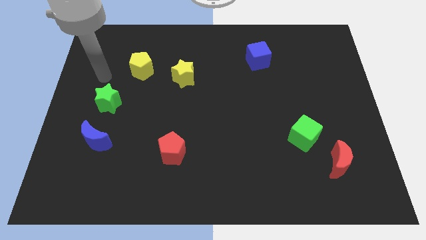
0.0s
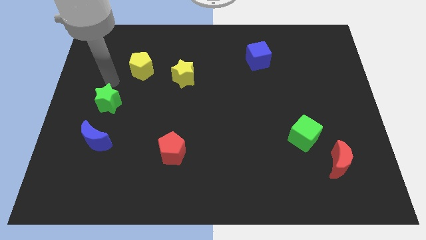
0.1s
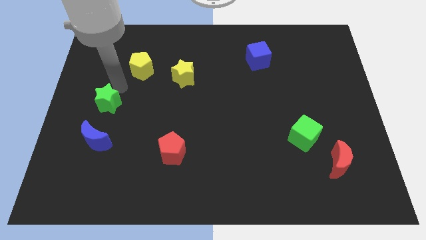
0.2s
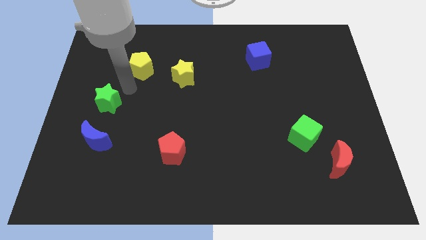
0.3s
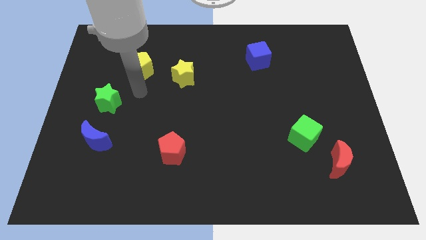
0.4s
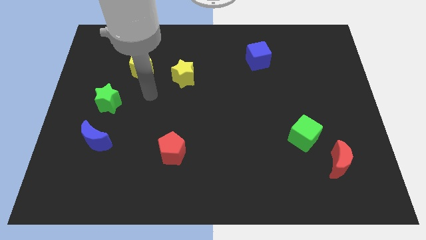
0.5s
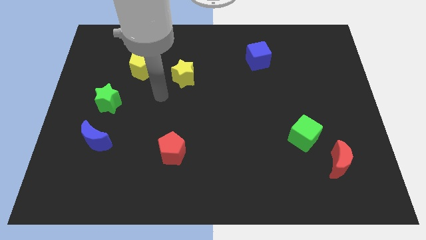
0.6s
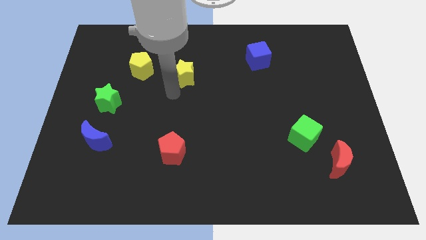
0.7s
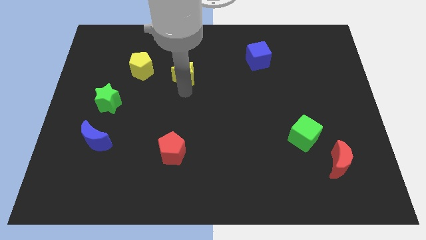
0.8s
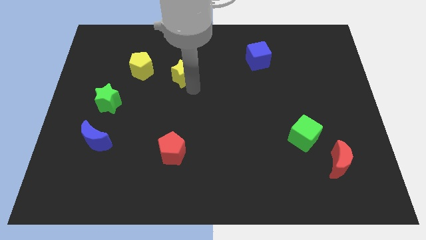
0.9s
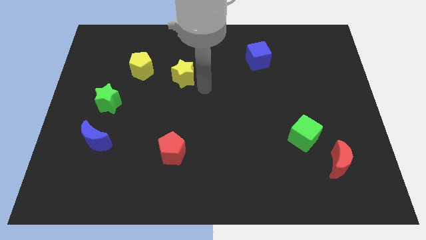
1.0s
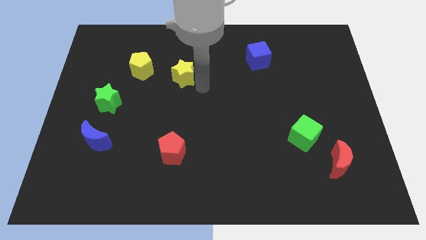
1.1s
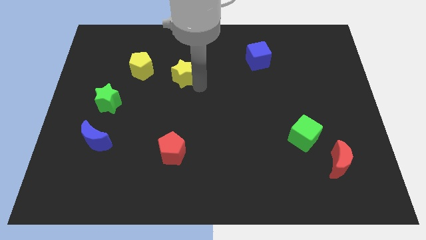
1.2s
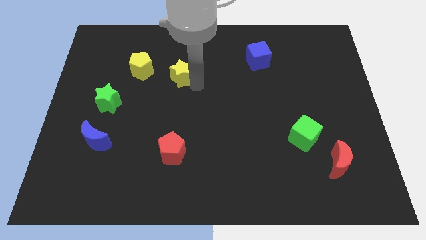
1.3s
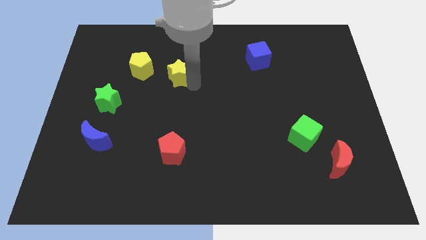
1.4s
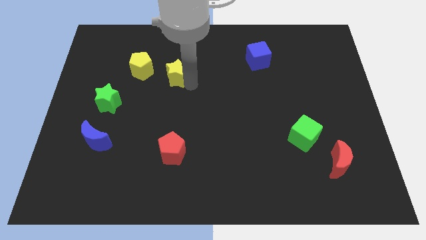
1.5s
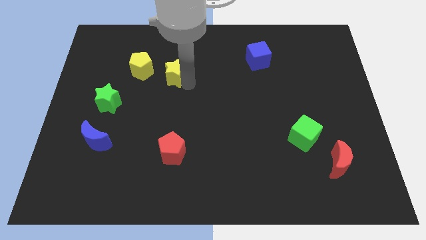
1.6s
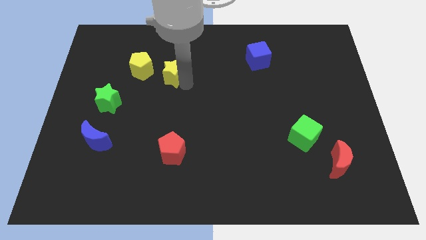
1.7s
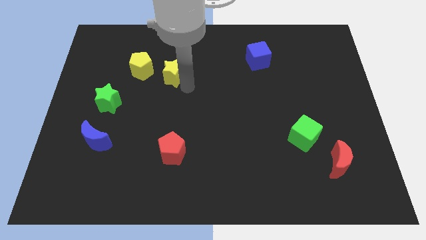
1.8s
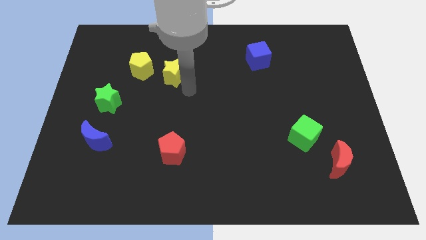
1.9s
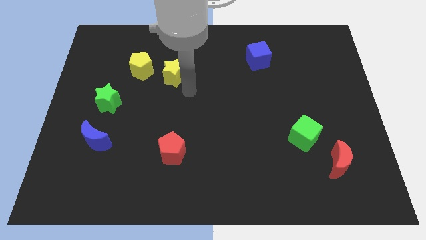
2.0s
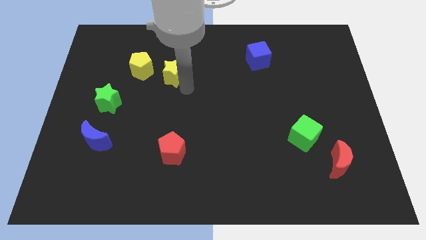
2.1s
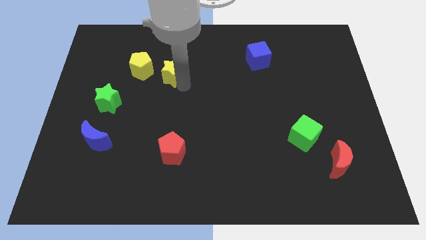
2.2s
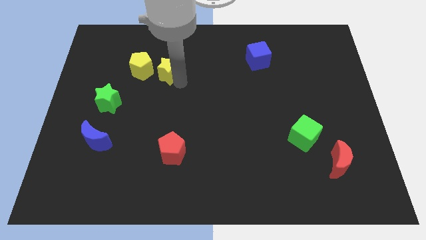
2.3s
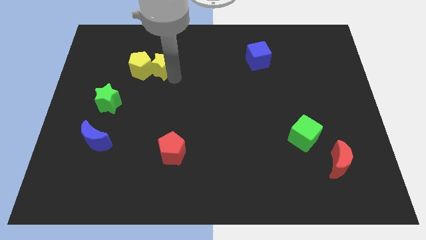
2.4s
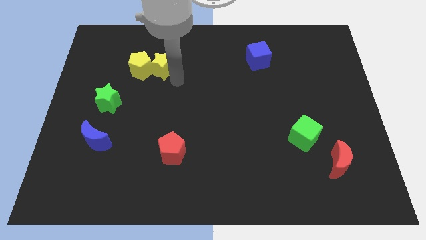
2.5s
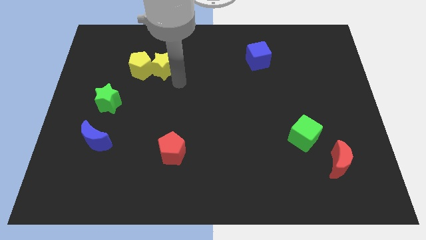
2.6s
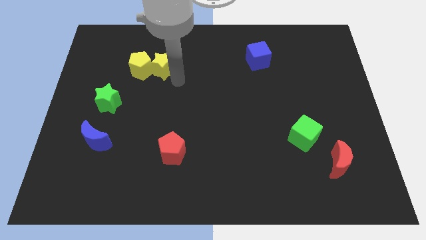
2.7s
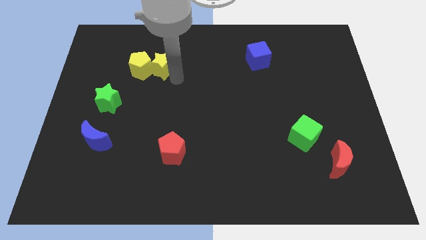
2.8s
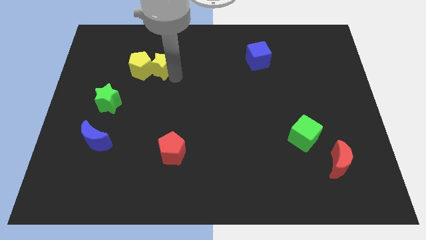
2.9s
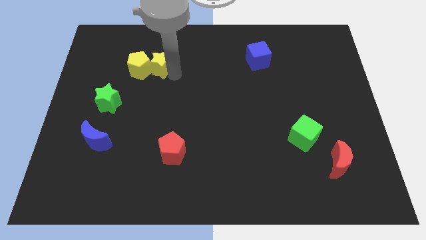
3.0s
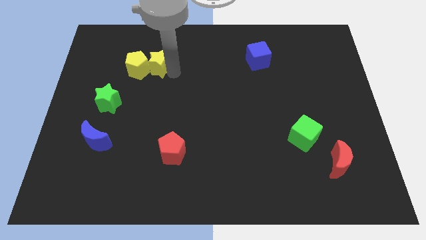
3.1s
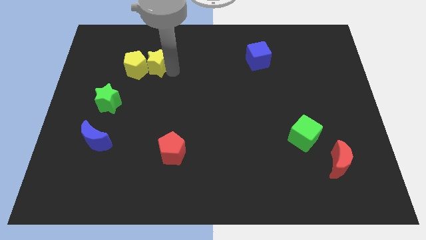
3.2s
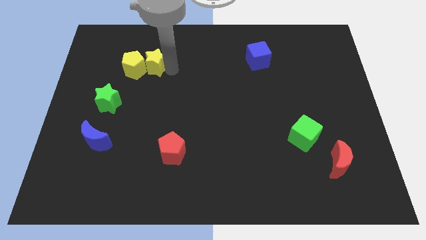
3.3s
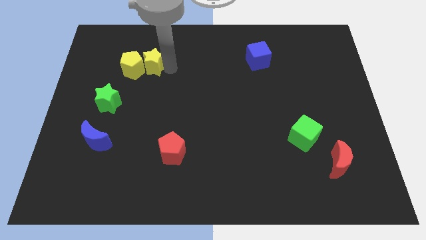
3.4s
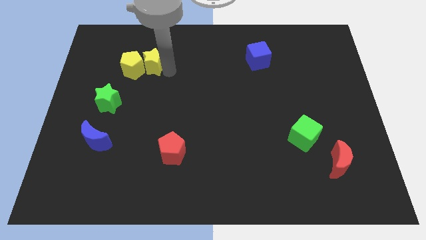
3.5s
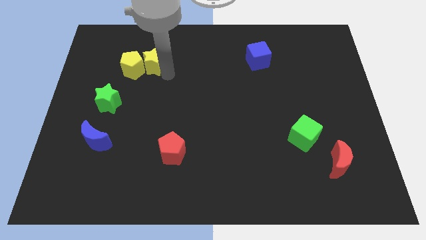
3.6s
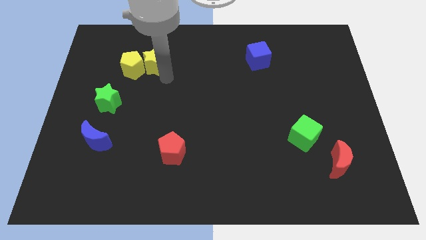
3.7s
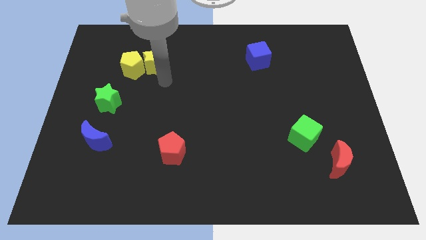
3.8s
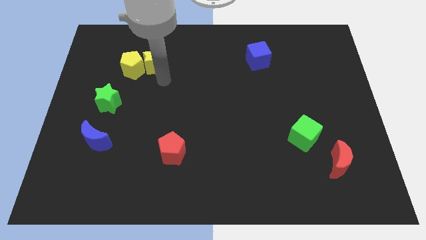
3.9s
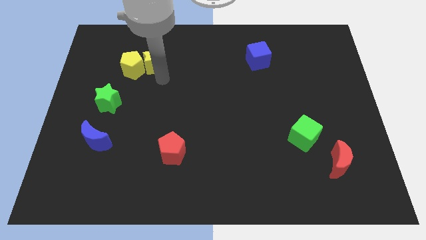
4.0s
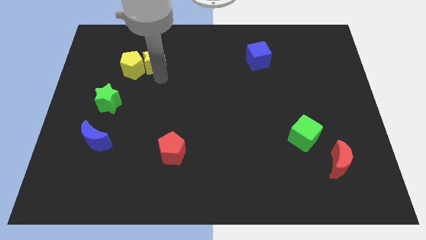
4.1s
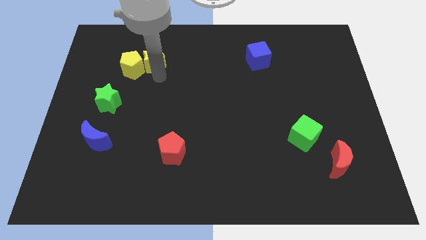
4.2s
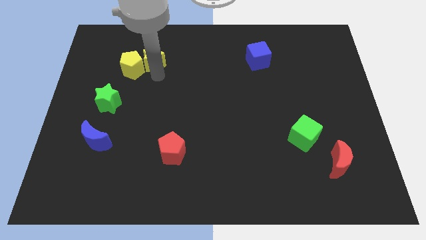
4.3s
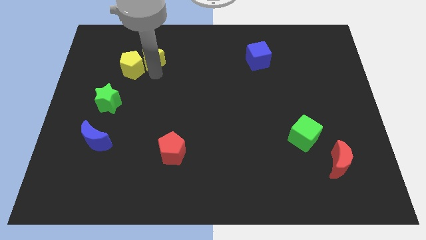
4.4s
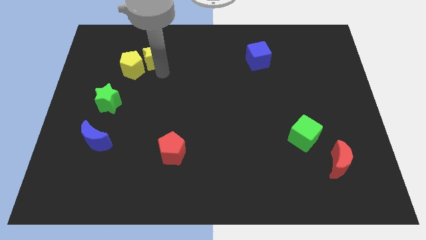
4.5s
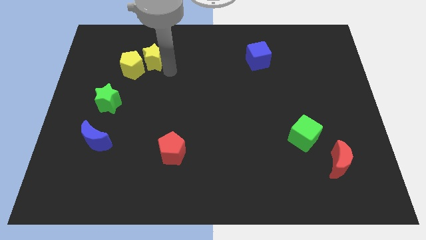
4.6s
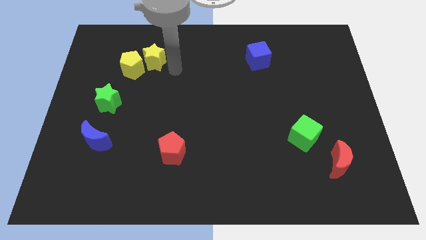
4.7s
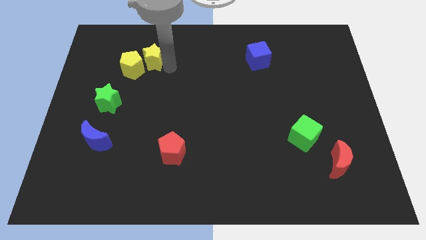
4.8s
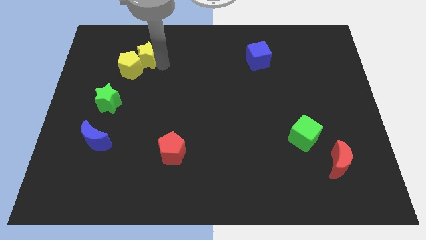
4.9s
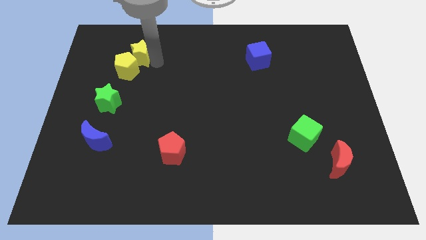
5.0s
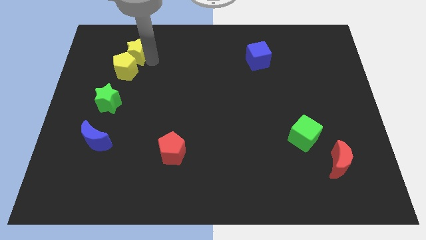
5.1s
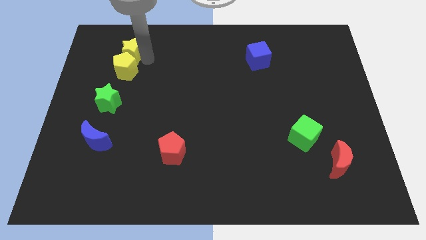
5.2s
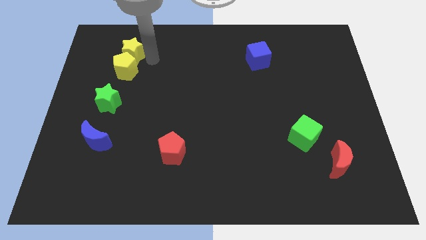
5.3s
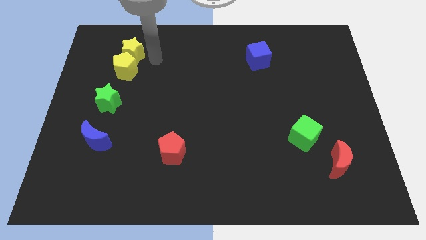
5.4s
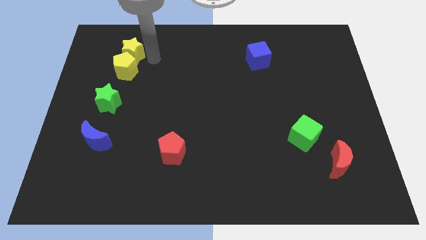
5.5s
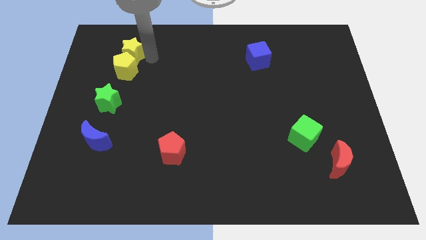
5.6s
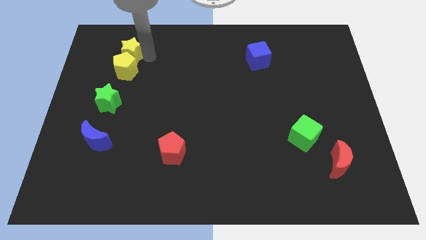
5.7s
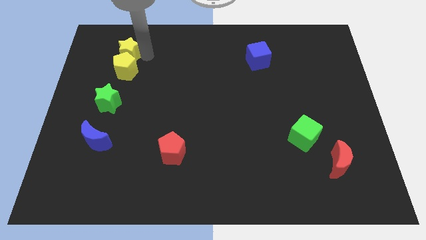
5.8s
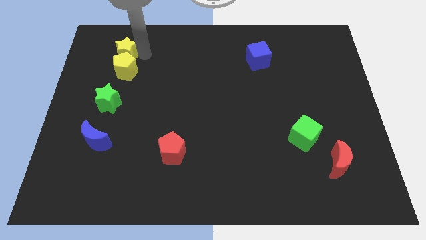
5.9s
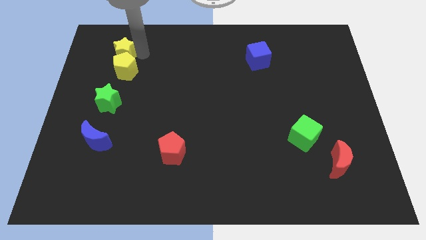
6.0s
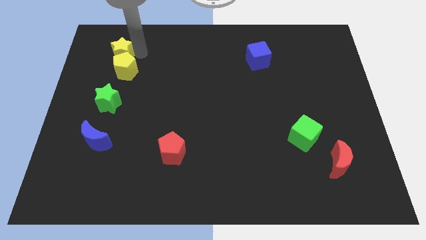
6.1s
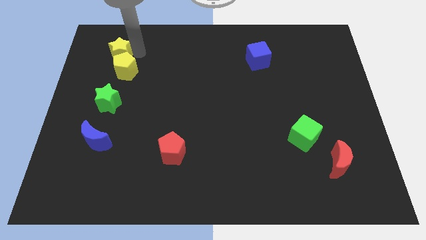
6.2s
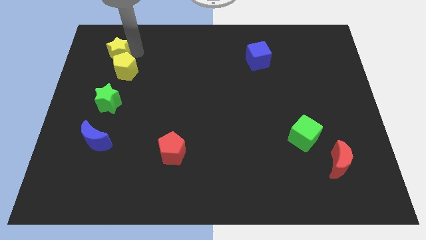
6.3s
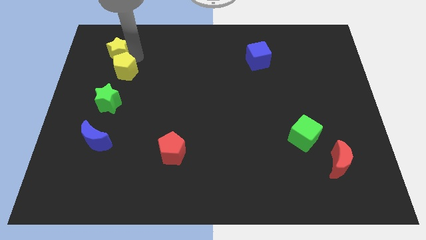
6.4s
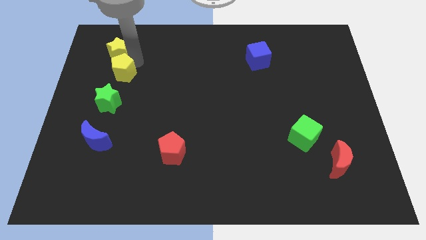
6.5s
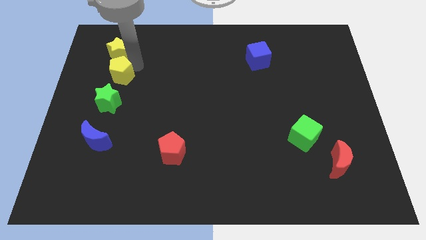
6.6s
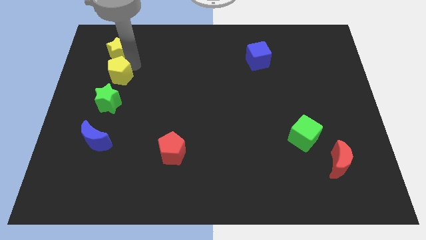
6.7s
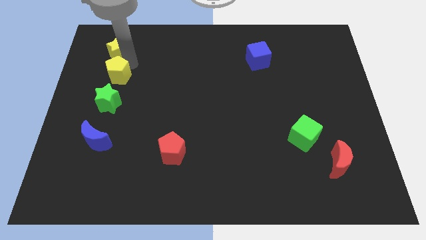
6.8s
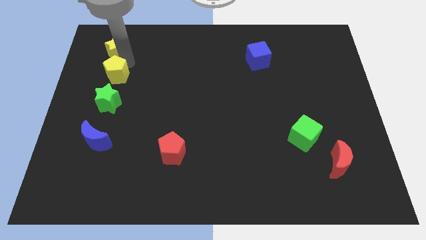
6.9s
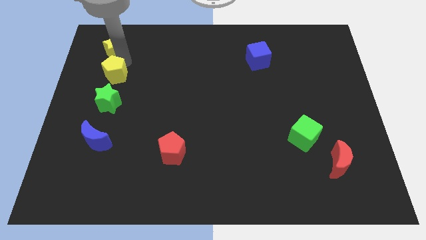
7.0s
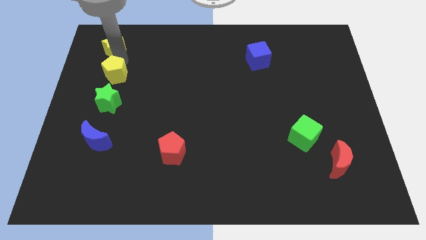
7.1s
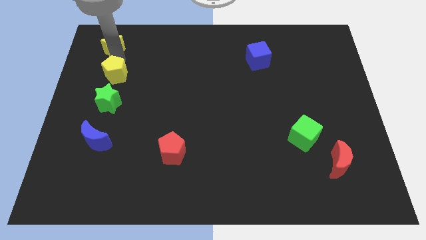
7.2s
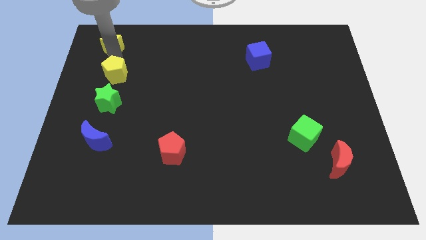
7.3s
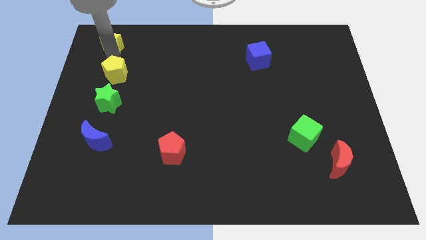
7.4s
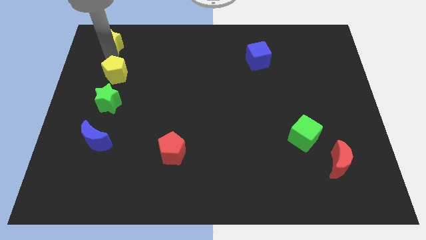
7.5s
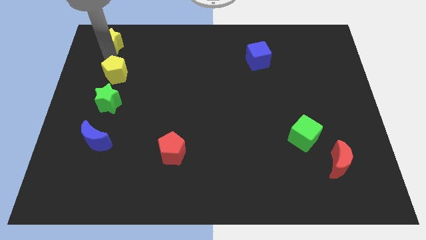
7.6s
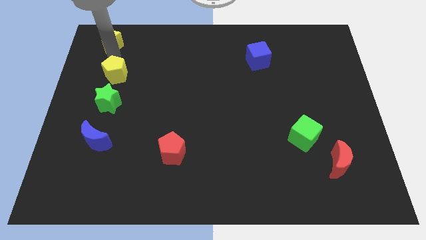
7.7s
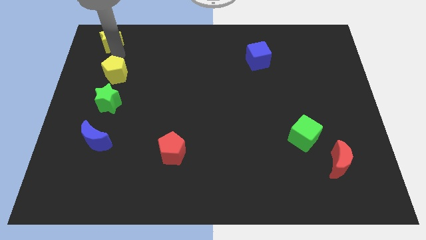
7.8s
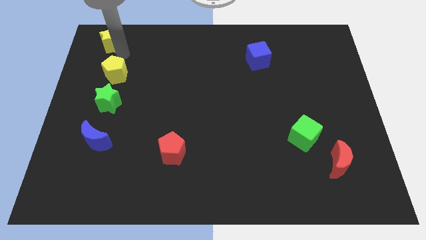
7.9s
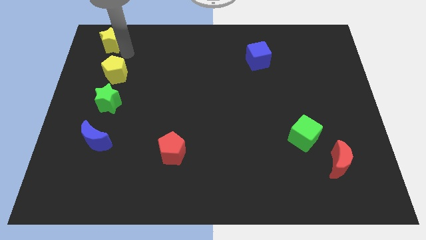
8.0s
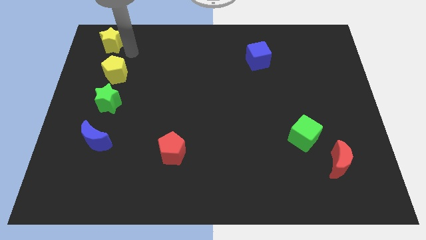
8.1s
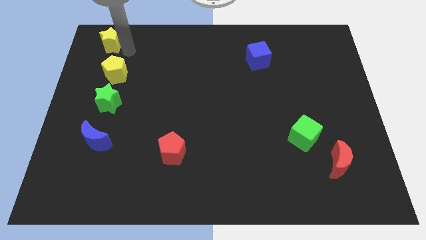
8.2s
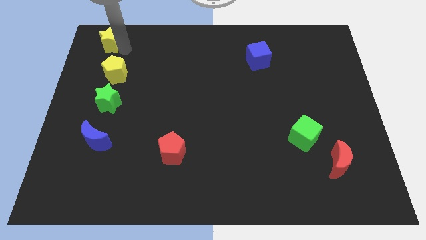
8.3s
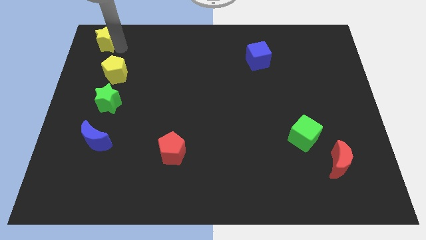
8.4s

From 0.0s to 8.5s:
slide the yellow star to the top left
